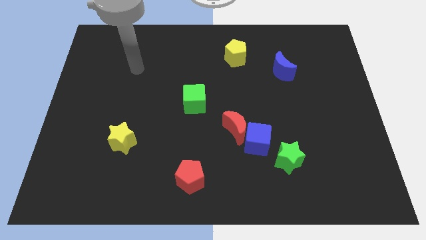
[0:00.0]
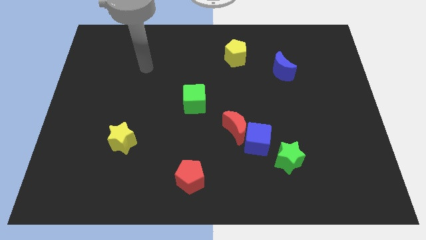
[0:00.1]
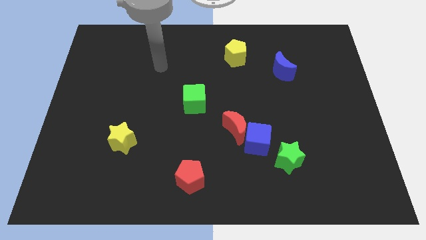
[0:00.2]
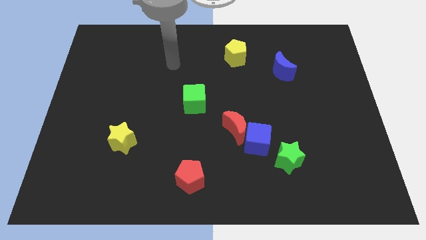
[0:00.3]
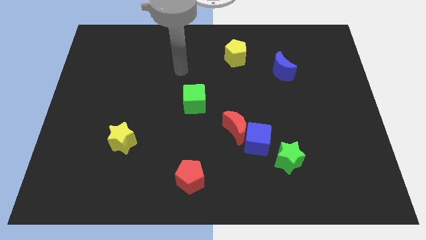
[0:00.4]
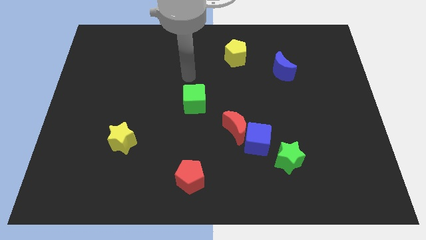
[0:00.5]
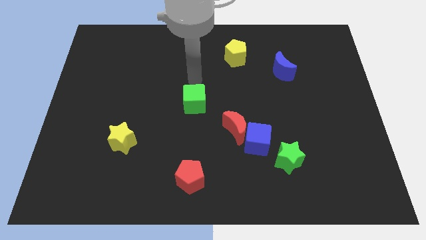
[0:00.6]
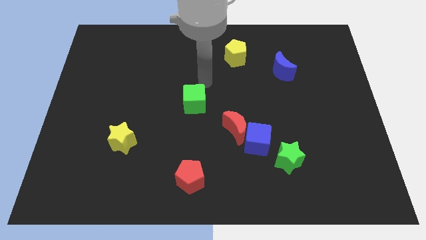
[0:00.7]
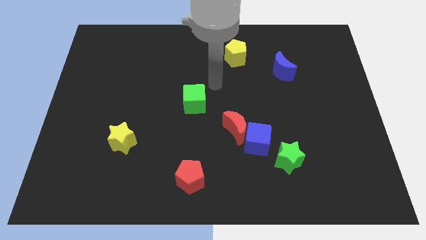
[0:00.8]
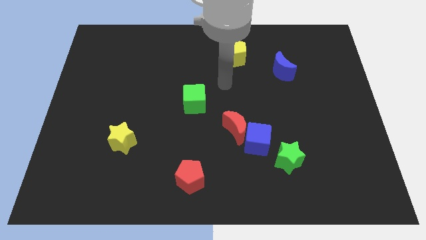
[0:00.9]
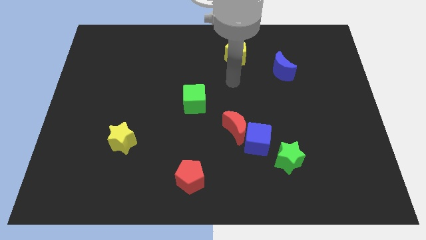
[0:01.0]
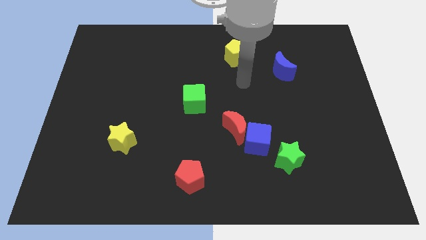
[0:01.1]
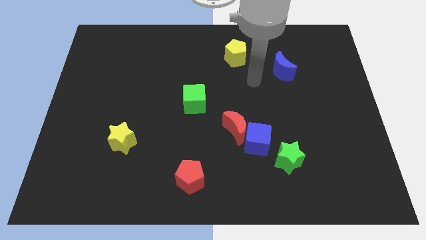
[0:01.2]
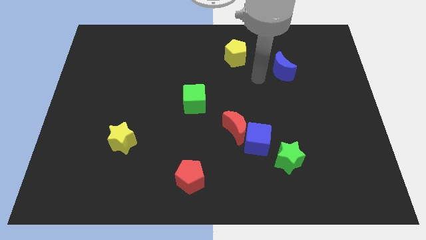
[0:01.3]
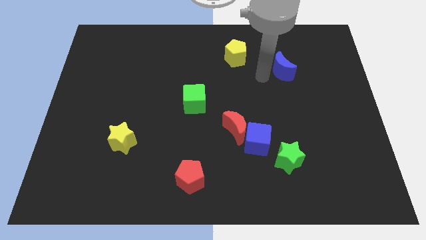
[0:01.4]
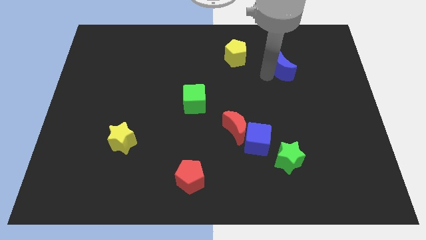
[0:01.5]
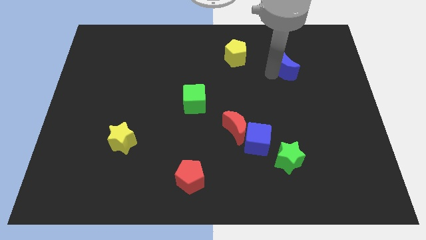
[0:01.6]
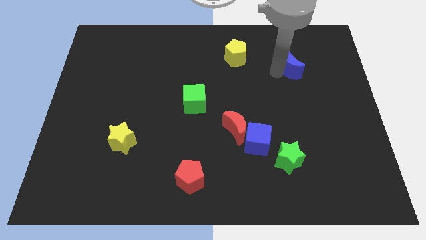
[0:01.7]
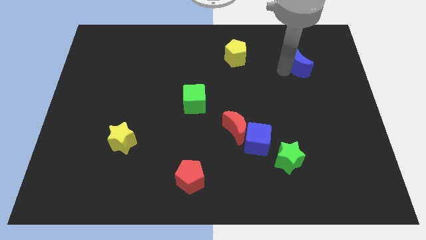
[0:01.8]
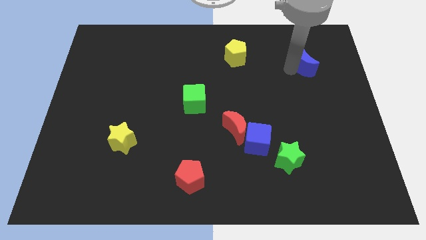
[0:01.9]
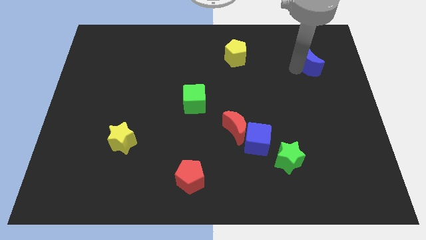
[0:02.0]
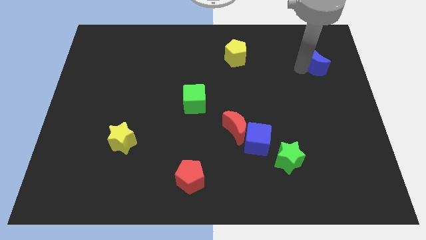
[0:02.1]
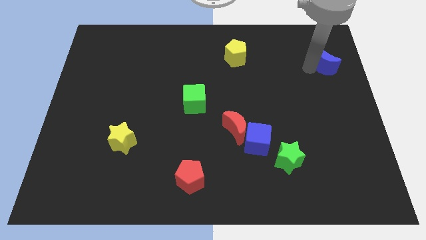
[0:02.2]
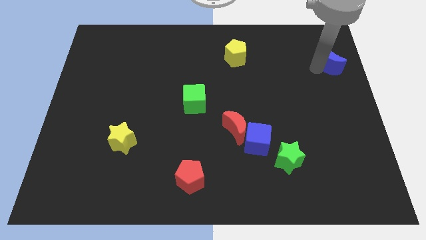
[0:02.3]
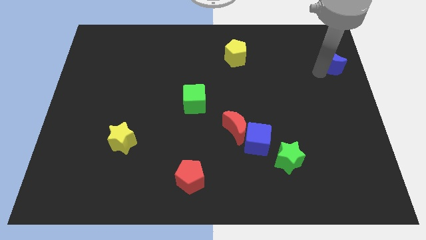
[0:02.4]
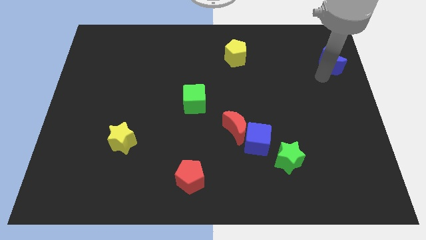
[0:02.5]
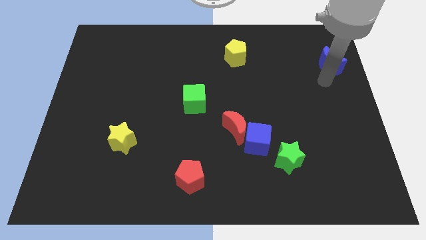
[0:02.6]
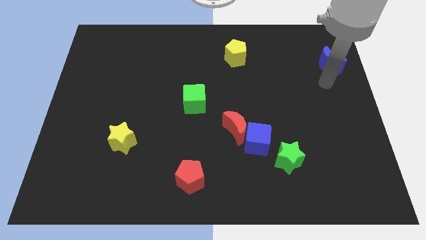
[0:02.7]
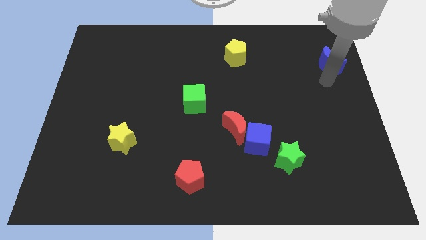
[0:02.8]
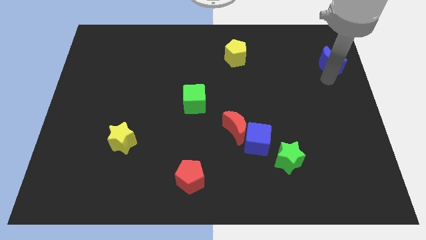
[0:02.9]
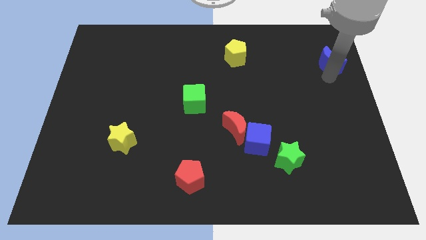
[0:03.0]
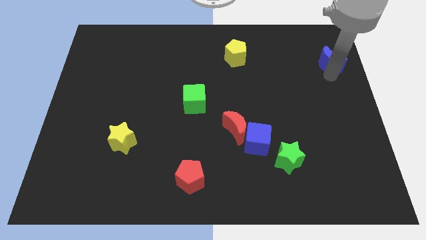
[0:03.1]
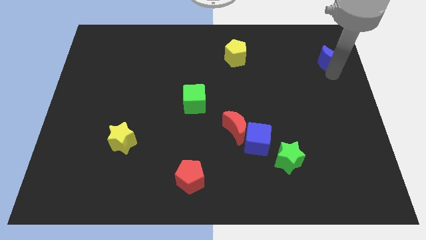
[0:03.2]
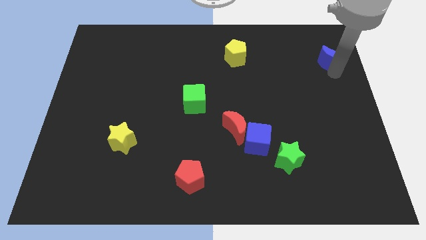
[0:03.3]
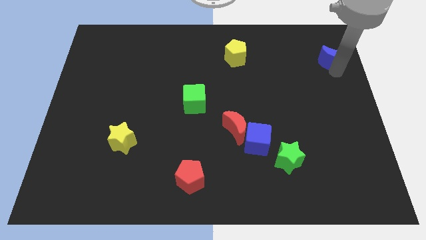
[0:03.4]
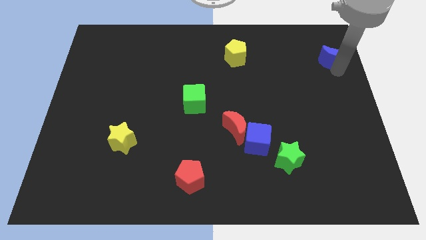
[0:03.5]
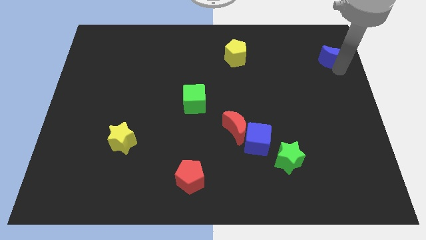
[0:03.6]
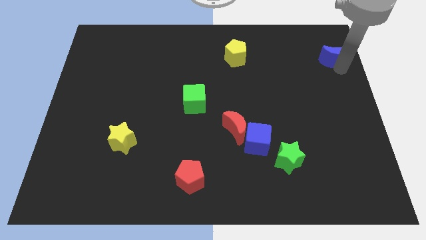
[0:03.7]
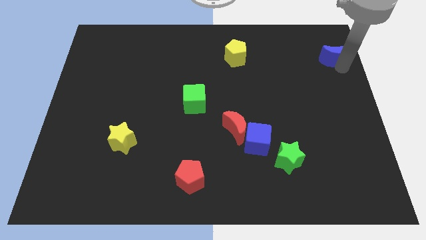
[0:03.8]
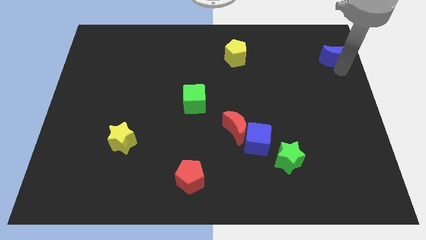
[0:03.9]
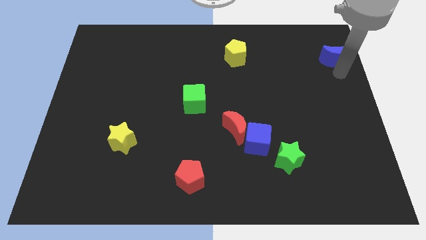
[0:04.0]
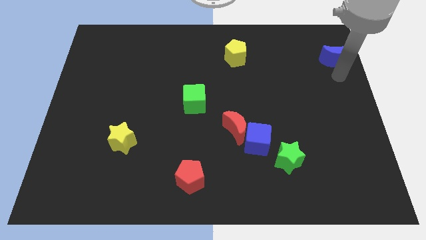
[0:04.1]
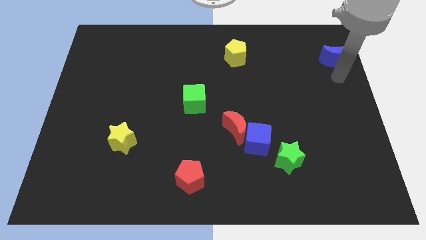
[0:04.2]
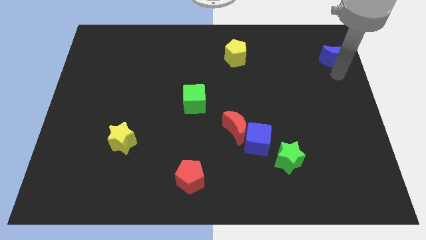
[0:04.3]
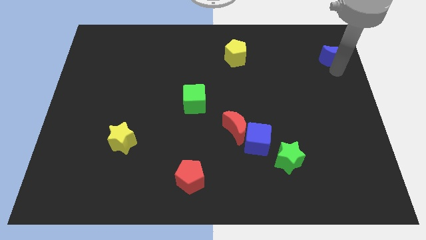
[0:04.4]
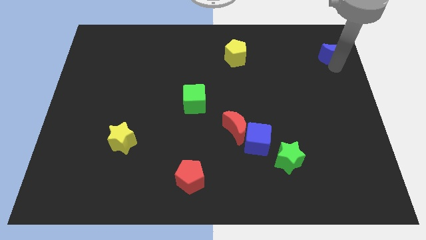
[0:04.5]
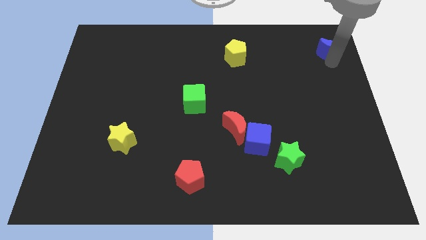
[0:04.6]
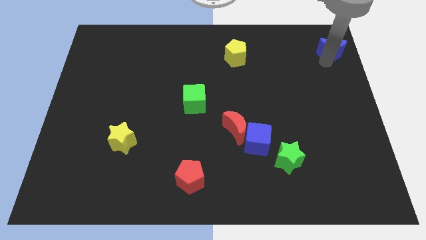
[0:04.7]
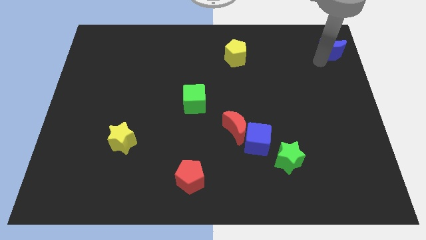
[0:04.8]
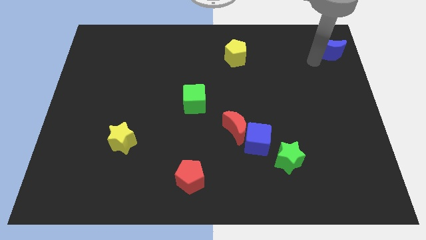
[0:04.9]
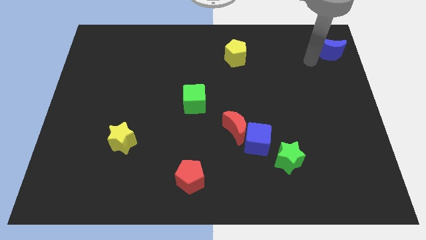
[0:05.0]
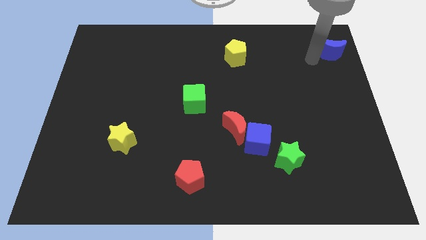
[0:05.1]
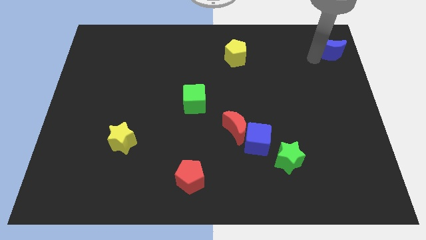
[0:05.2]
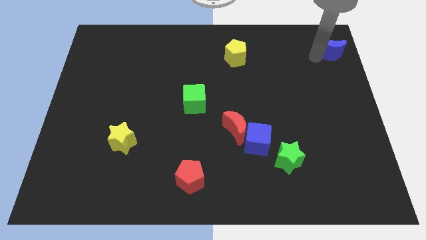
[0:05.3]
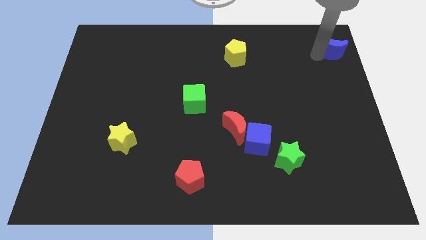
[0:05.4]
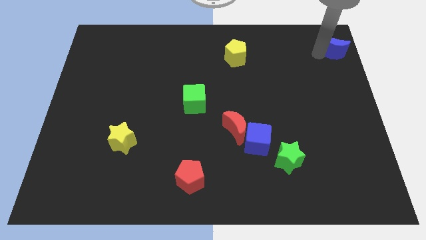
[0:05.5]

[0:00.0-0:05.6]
slide the blue moon to the top right of the board
